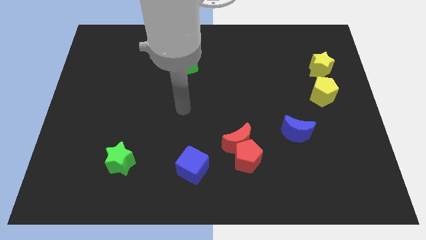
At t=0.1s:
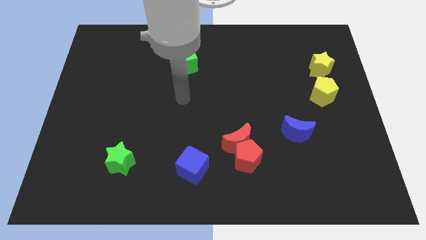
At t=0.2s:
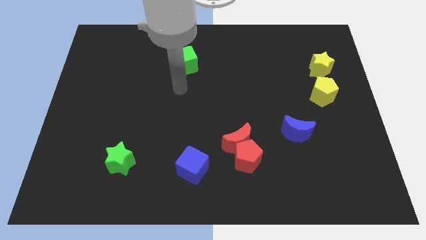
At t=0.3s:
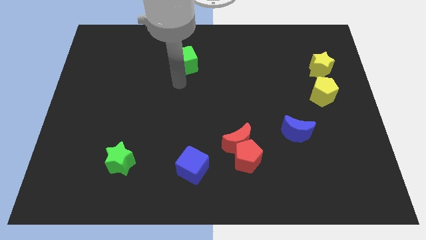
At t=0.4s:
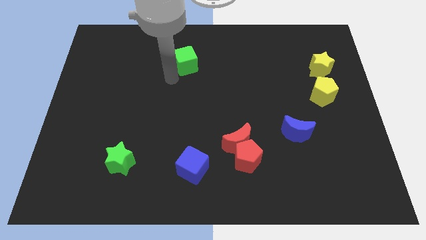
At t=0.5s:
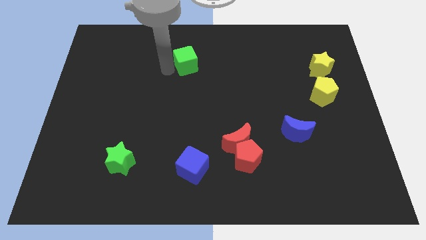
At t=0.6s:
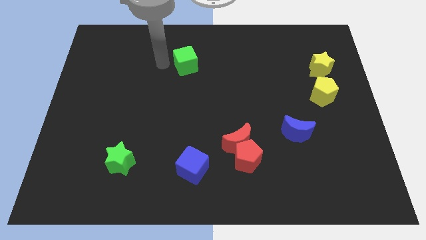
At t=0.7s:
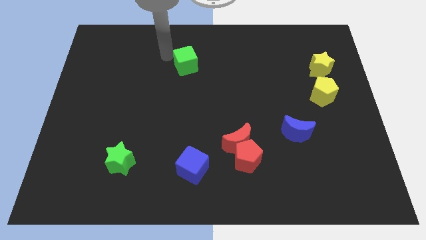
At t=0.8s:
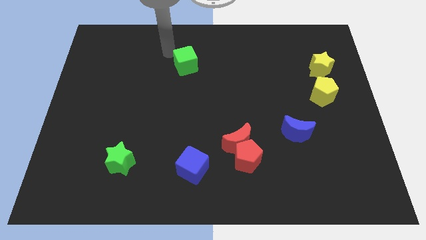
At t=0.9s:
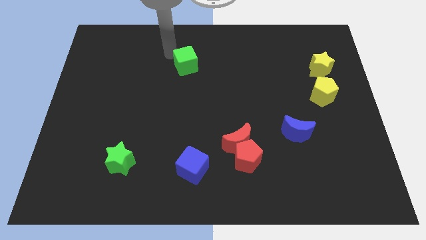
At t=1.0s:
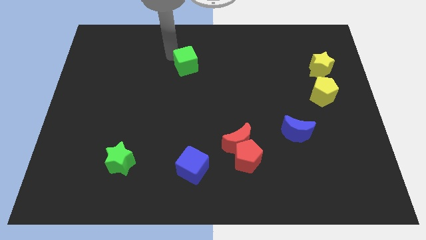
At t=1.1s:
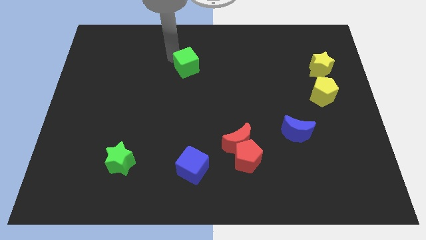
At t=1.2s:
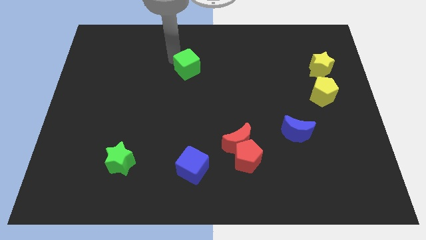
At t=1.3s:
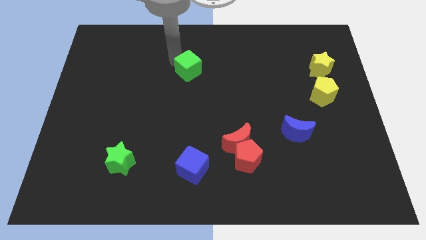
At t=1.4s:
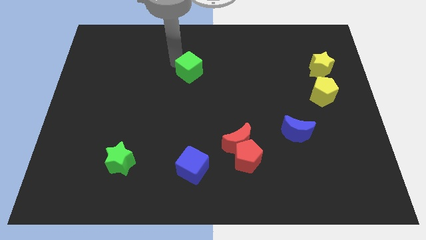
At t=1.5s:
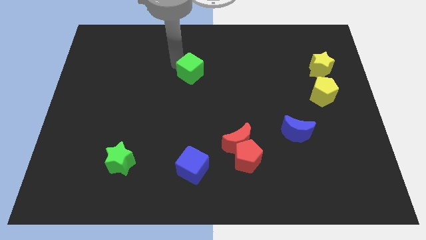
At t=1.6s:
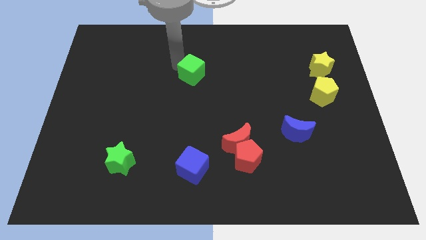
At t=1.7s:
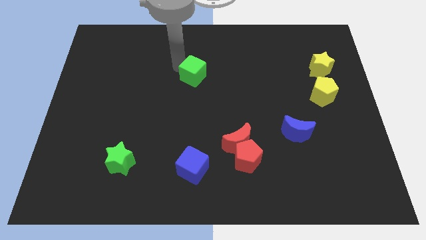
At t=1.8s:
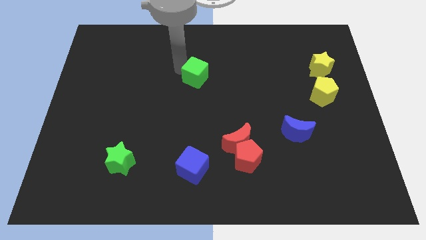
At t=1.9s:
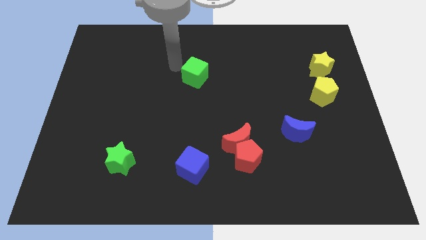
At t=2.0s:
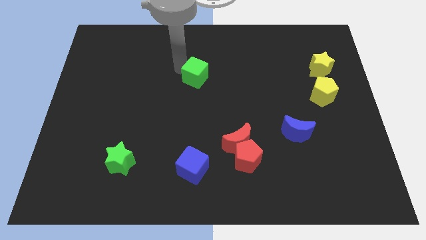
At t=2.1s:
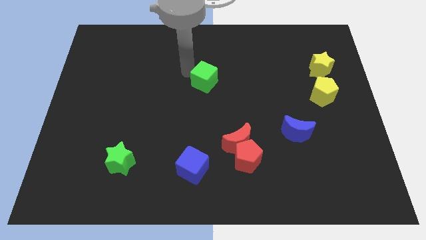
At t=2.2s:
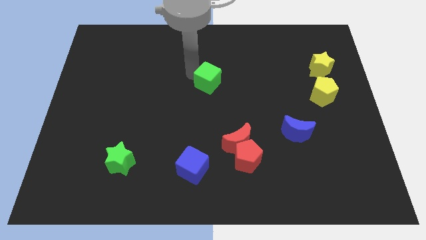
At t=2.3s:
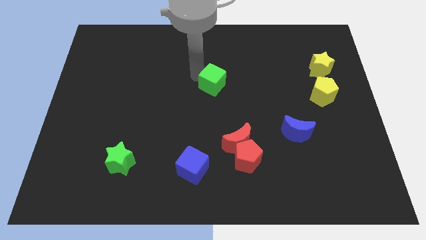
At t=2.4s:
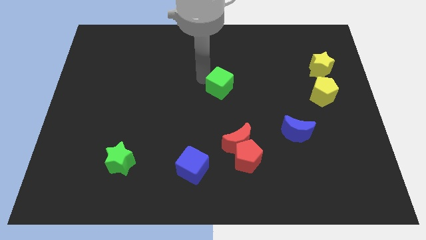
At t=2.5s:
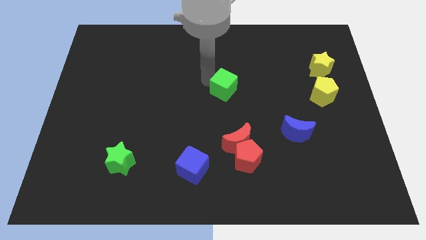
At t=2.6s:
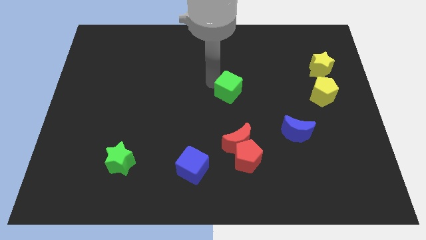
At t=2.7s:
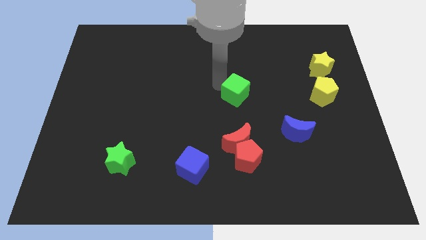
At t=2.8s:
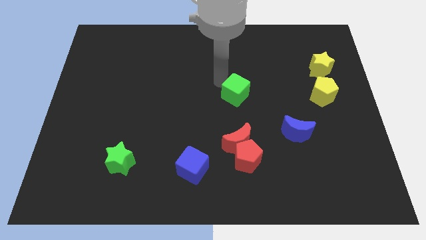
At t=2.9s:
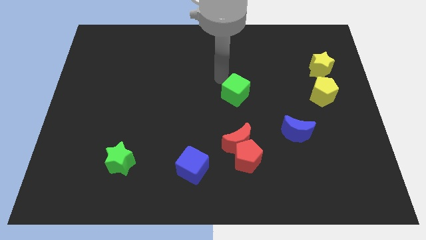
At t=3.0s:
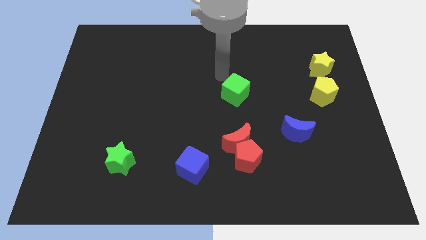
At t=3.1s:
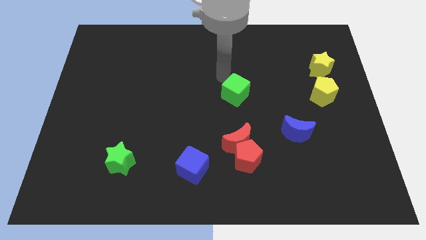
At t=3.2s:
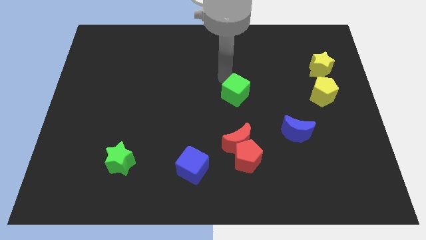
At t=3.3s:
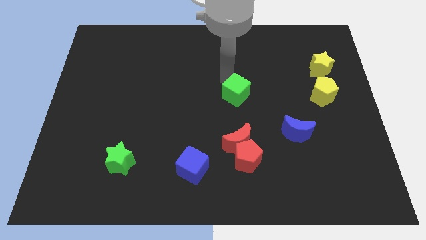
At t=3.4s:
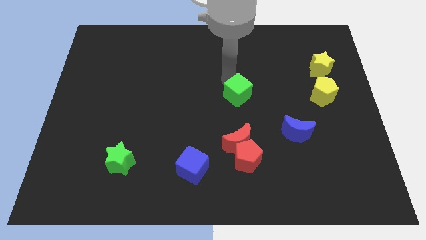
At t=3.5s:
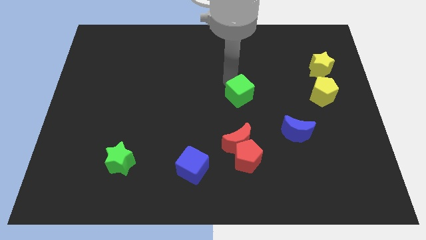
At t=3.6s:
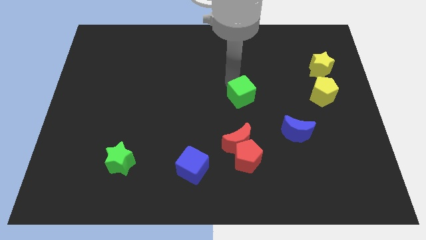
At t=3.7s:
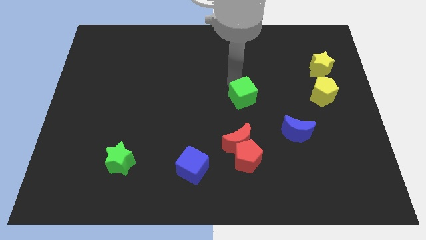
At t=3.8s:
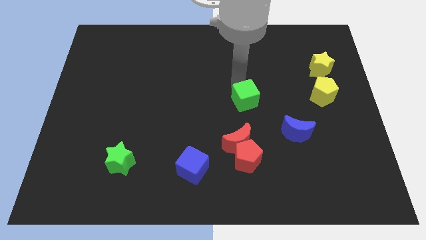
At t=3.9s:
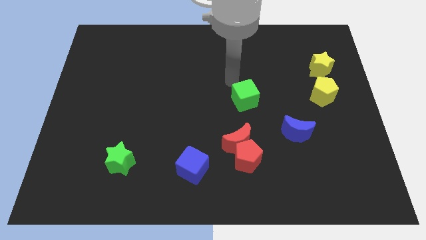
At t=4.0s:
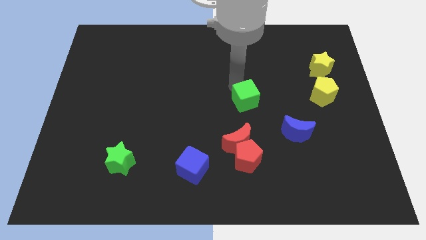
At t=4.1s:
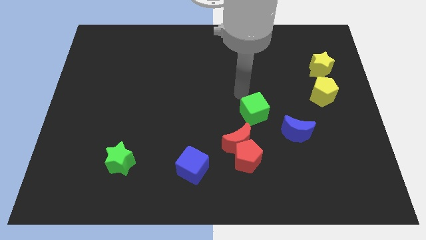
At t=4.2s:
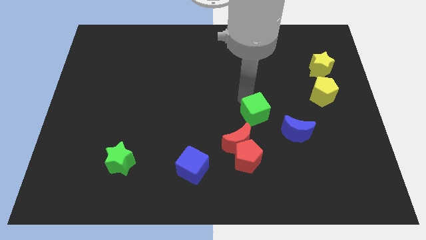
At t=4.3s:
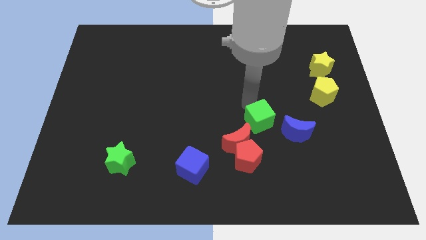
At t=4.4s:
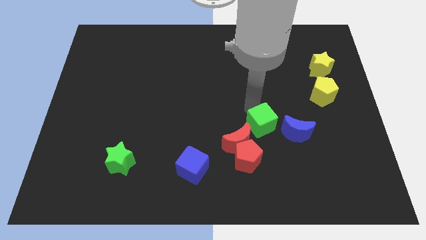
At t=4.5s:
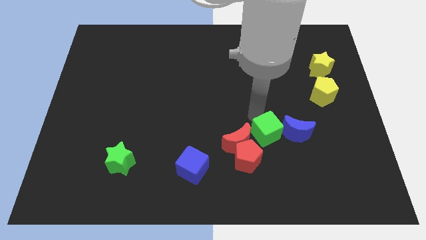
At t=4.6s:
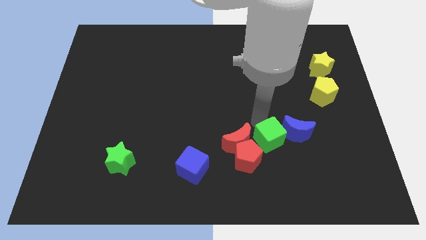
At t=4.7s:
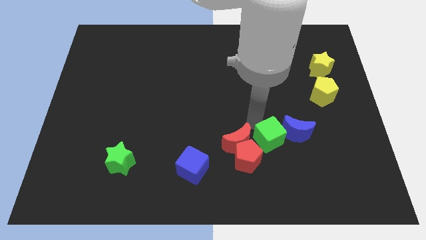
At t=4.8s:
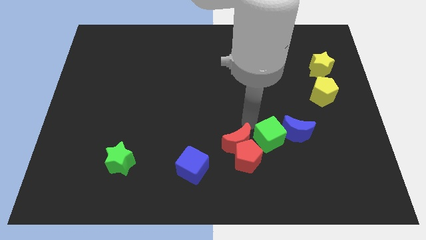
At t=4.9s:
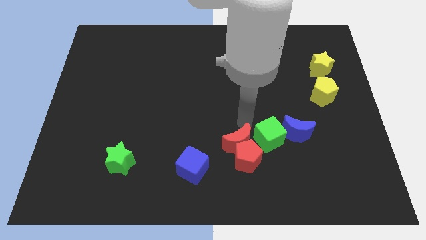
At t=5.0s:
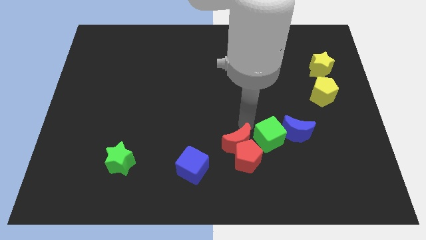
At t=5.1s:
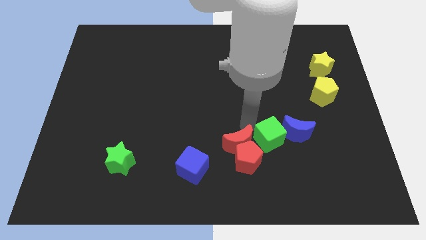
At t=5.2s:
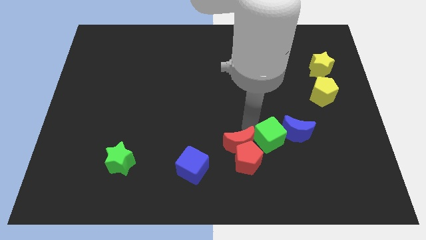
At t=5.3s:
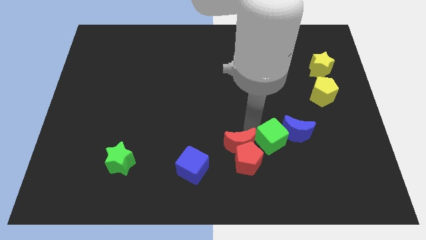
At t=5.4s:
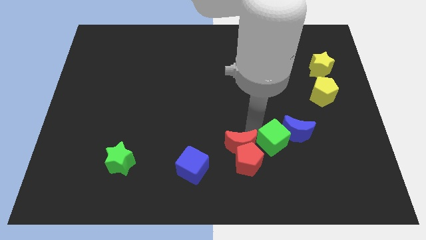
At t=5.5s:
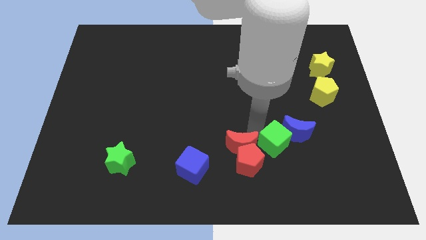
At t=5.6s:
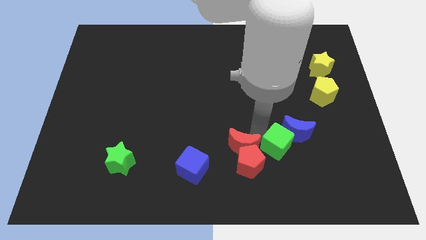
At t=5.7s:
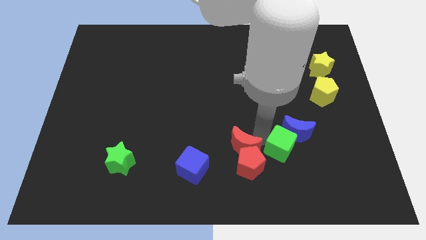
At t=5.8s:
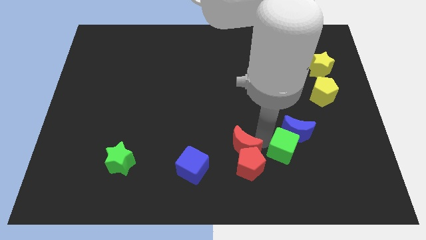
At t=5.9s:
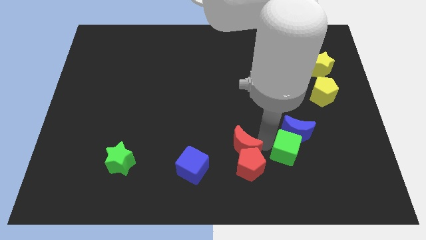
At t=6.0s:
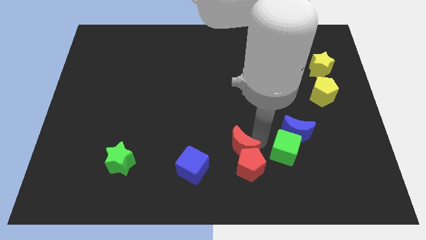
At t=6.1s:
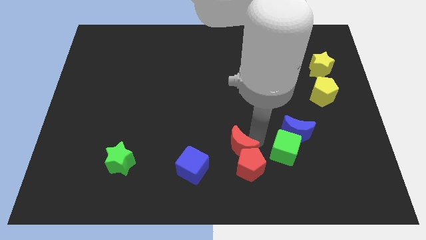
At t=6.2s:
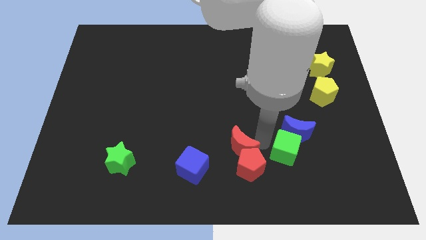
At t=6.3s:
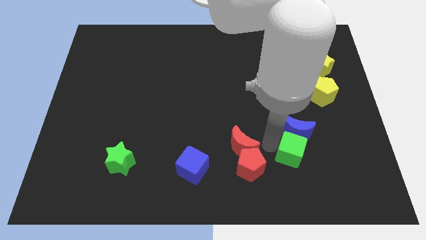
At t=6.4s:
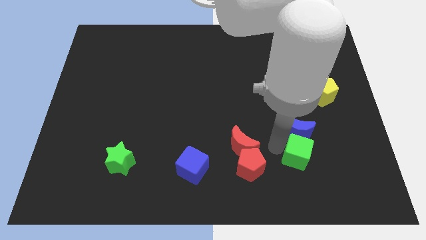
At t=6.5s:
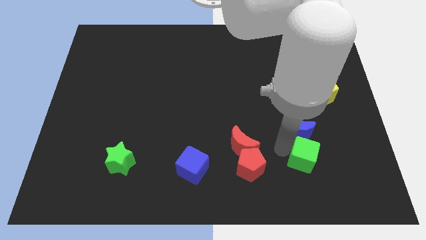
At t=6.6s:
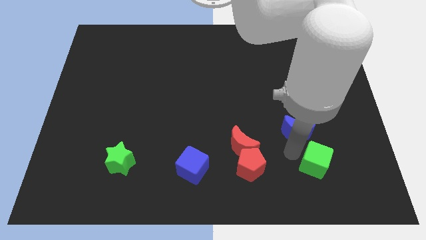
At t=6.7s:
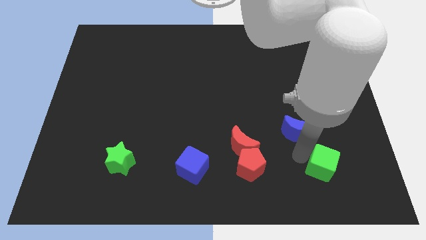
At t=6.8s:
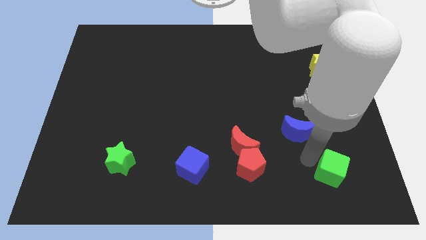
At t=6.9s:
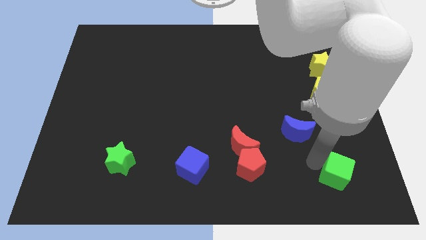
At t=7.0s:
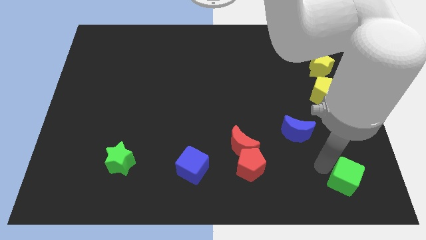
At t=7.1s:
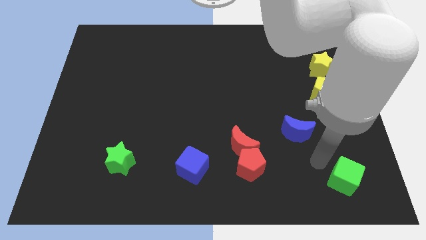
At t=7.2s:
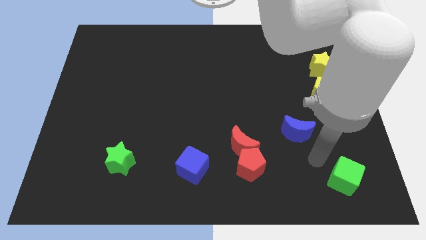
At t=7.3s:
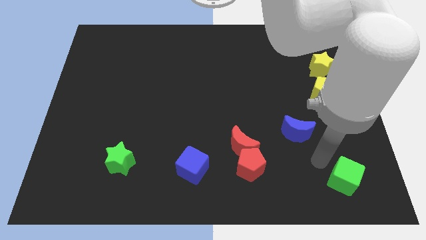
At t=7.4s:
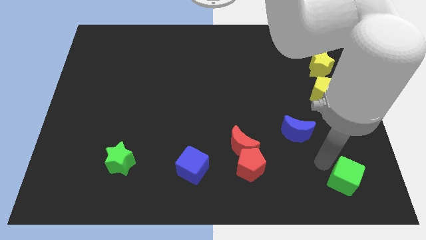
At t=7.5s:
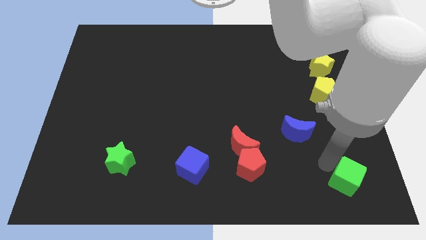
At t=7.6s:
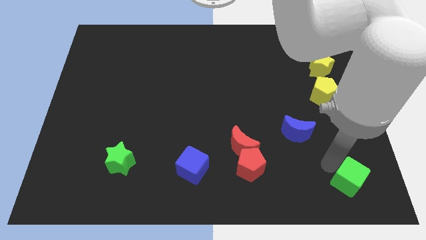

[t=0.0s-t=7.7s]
push the green cube to the bottom right

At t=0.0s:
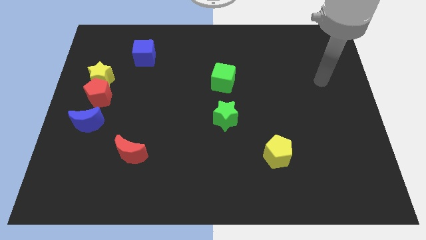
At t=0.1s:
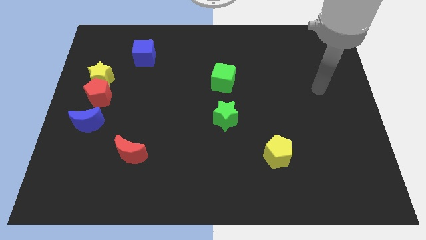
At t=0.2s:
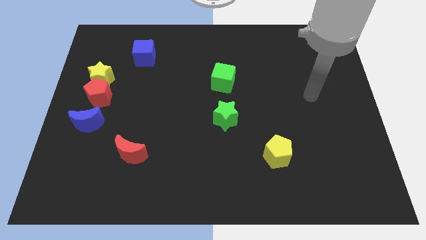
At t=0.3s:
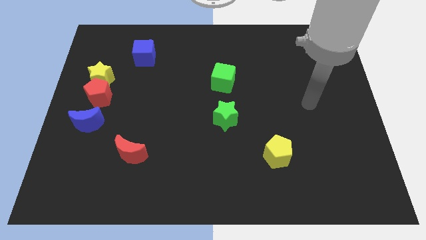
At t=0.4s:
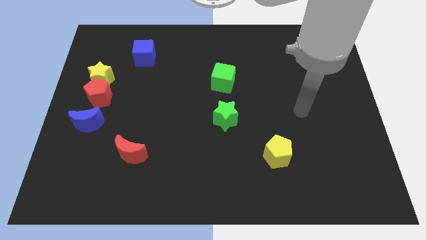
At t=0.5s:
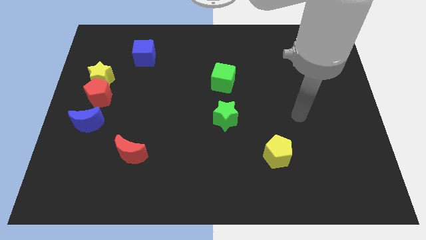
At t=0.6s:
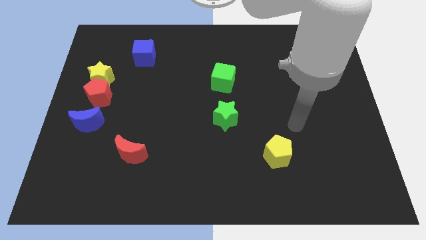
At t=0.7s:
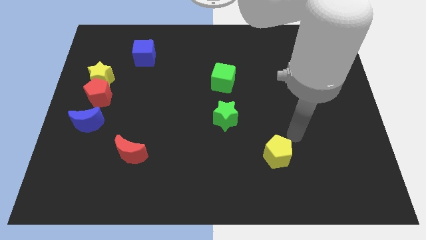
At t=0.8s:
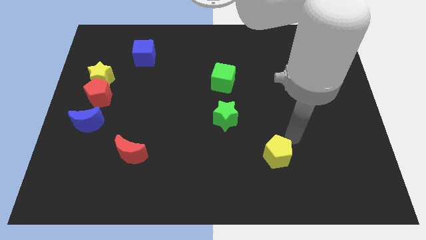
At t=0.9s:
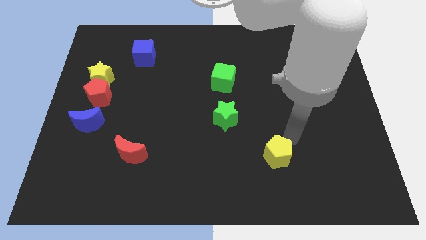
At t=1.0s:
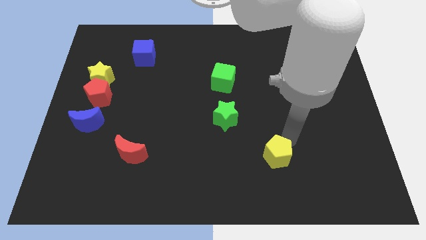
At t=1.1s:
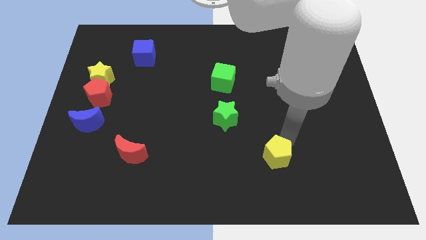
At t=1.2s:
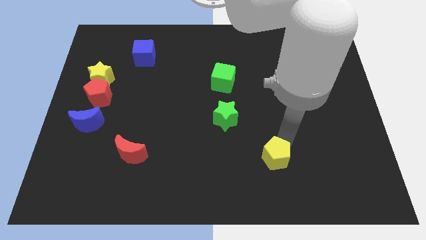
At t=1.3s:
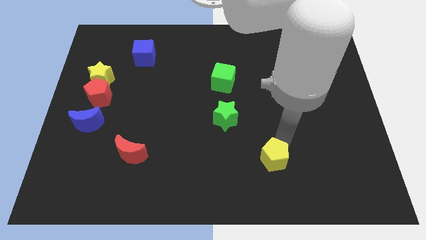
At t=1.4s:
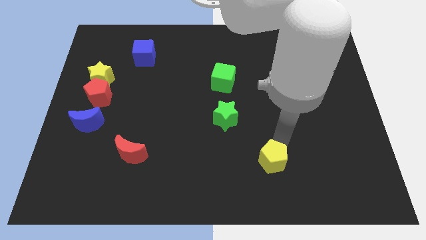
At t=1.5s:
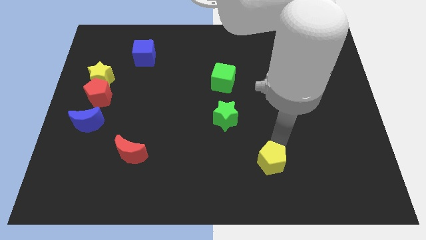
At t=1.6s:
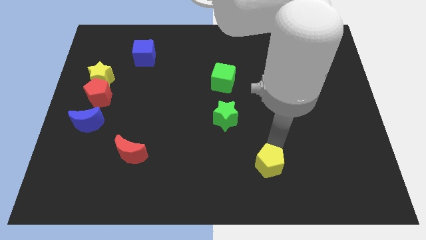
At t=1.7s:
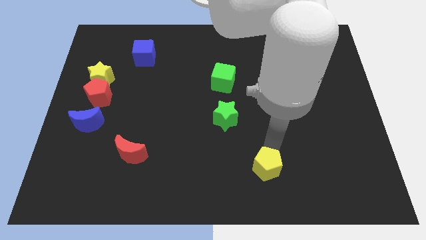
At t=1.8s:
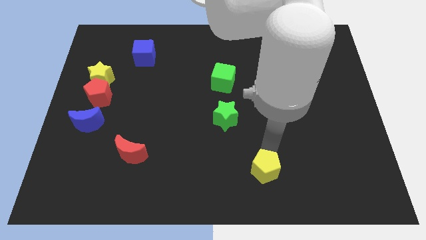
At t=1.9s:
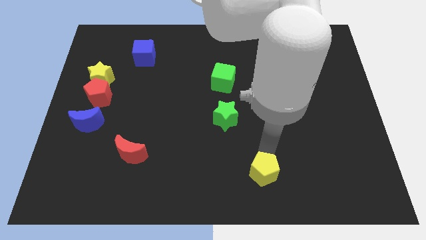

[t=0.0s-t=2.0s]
push the yellow pentagon to the bottom
